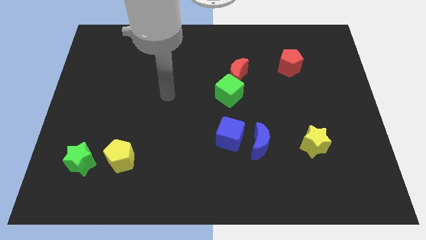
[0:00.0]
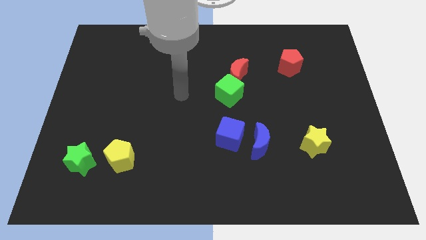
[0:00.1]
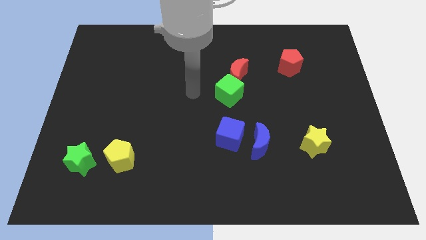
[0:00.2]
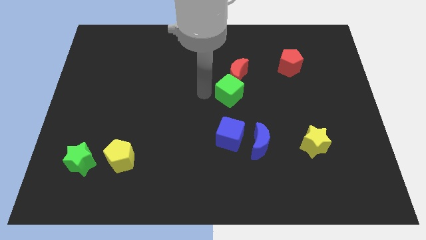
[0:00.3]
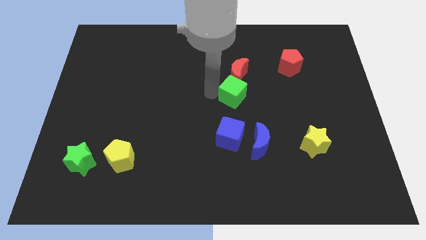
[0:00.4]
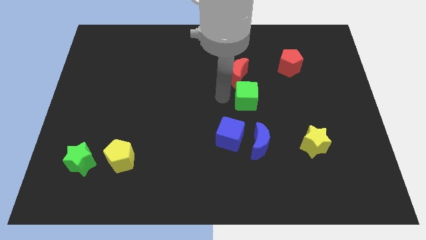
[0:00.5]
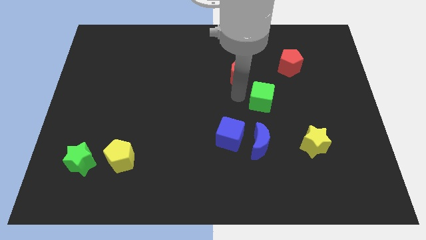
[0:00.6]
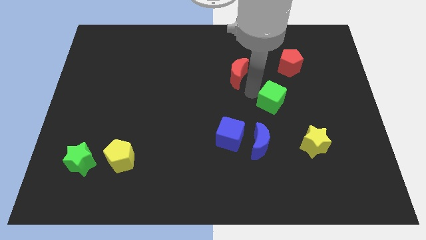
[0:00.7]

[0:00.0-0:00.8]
move the red moon away from the green cube

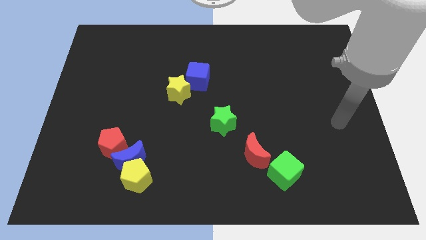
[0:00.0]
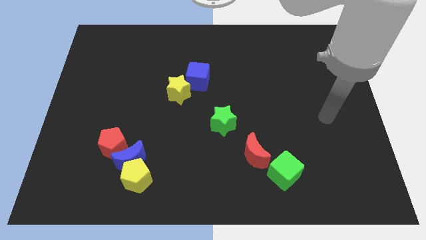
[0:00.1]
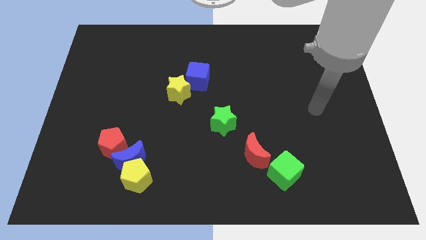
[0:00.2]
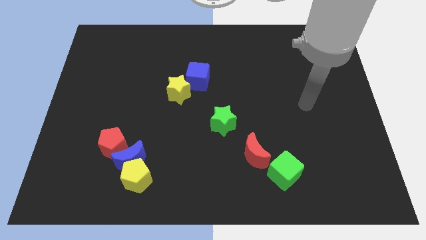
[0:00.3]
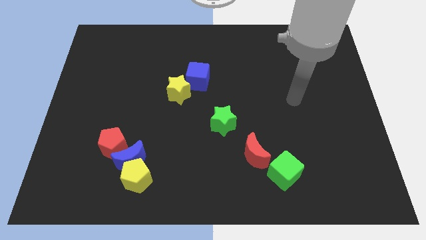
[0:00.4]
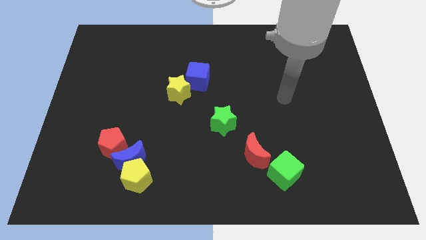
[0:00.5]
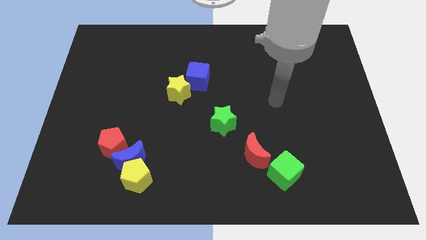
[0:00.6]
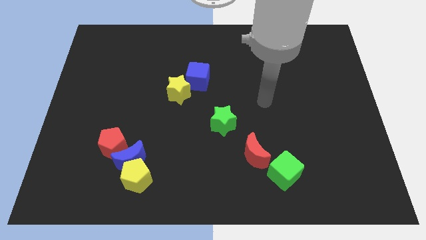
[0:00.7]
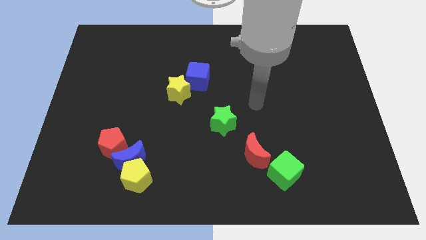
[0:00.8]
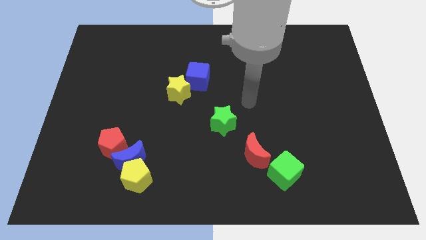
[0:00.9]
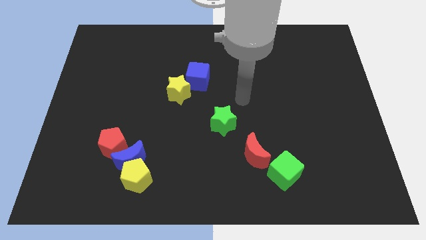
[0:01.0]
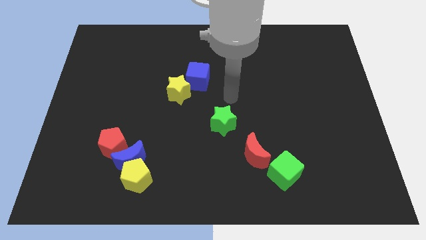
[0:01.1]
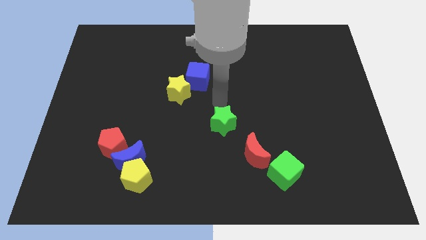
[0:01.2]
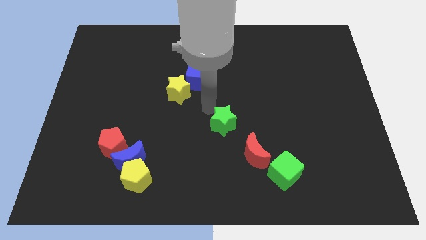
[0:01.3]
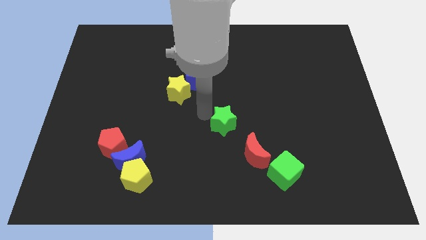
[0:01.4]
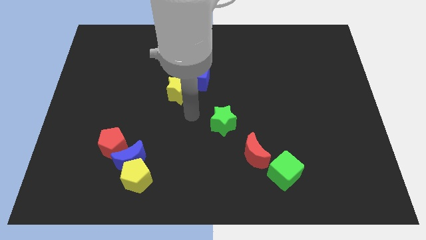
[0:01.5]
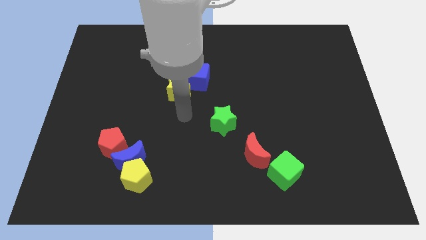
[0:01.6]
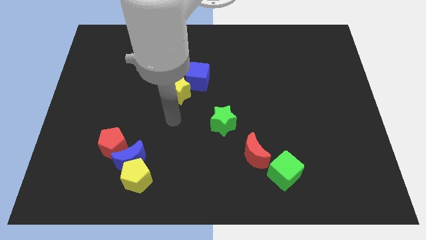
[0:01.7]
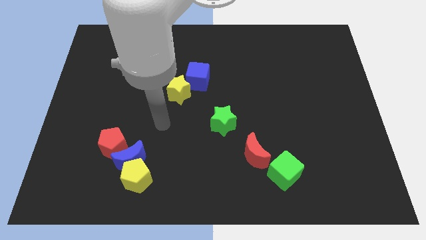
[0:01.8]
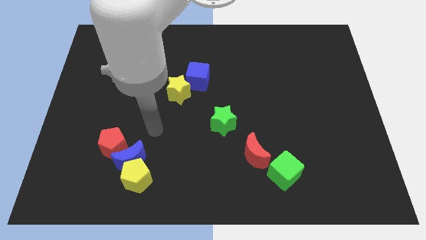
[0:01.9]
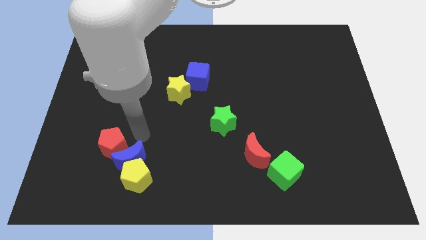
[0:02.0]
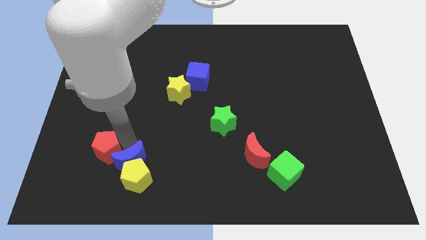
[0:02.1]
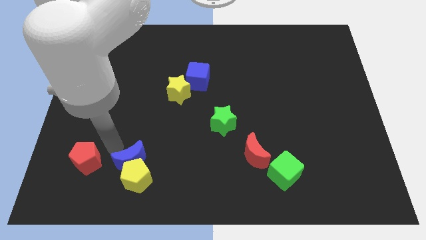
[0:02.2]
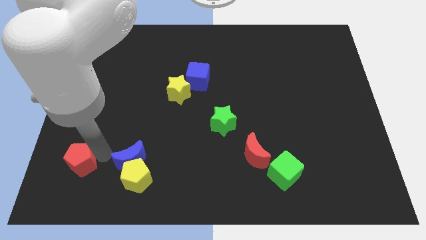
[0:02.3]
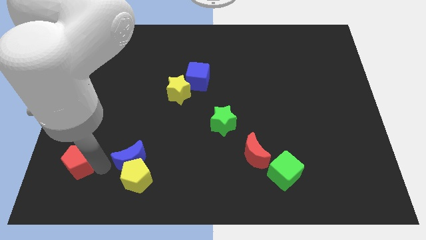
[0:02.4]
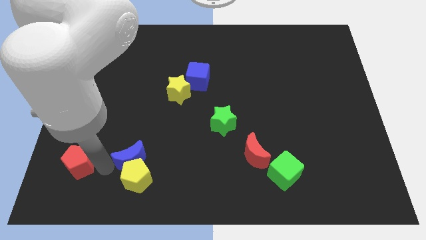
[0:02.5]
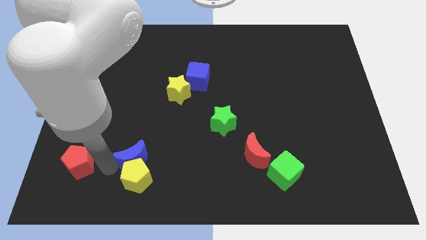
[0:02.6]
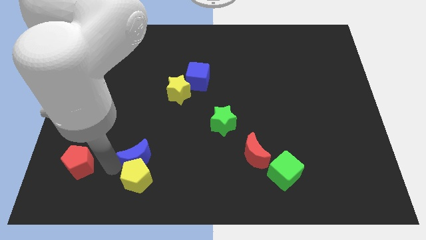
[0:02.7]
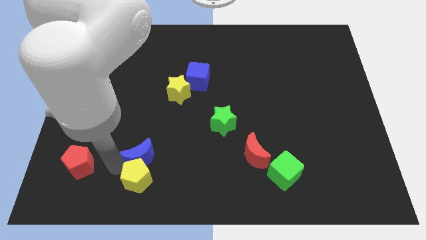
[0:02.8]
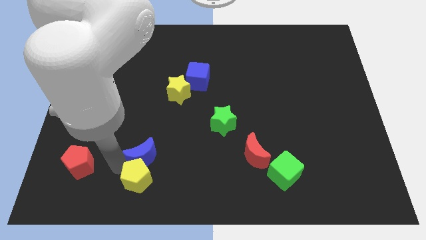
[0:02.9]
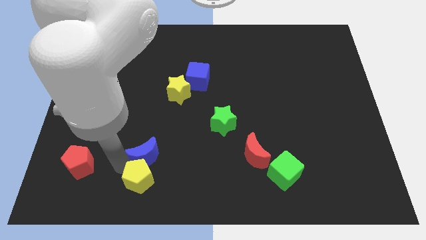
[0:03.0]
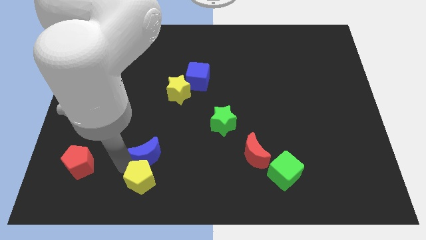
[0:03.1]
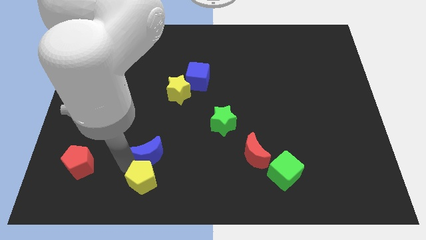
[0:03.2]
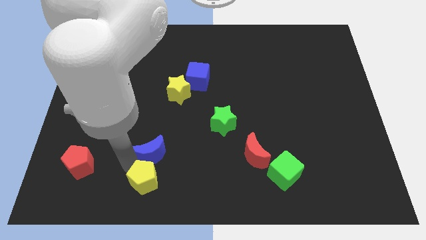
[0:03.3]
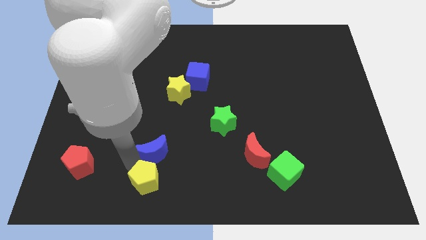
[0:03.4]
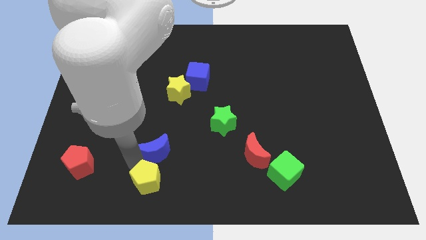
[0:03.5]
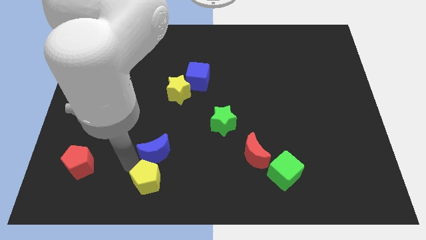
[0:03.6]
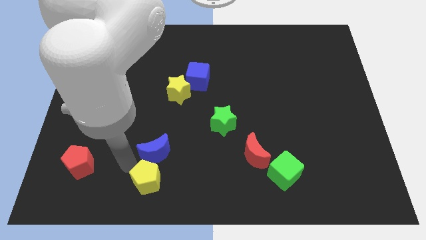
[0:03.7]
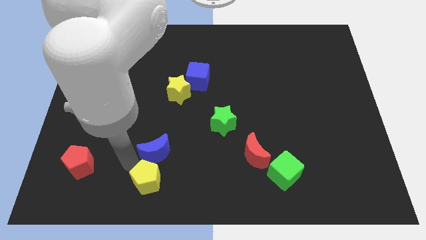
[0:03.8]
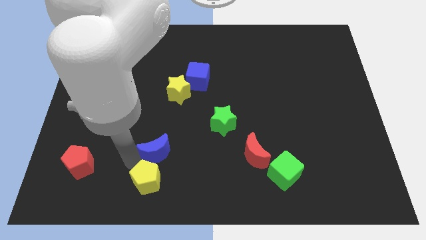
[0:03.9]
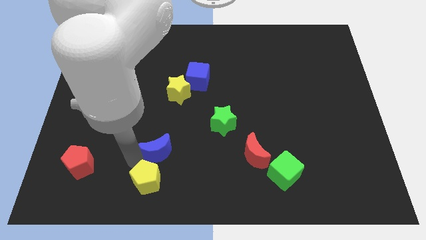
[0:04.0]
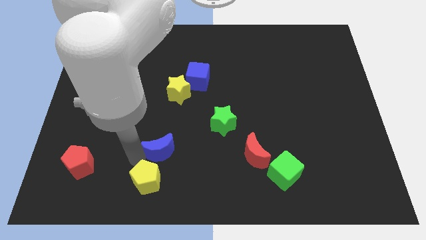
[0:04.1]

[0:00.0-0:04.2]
separate the blue moon from the yellow pentagon and red pentagon

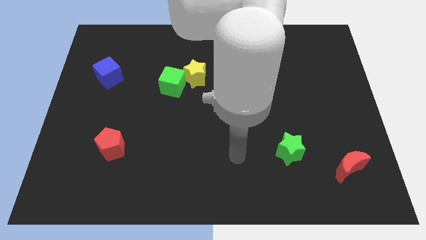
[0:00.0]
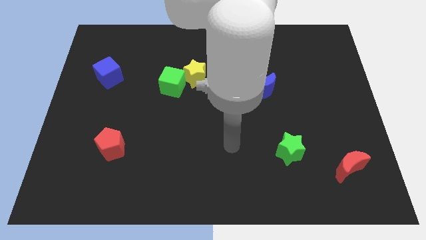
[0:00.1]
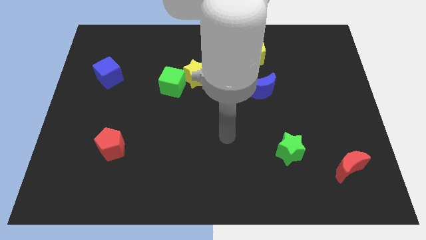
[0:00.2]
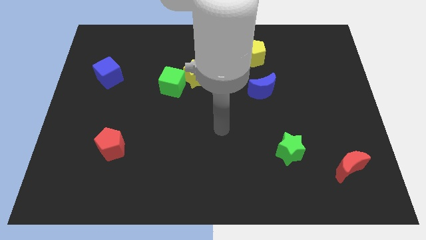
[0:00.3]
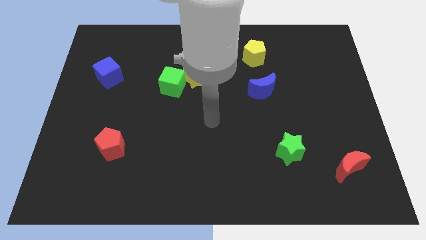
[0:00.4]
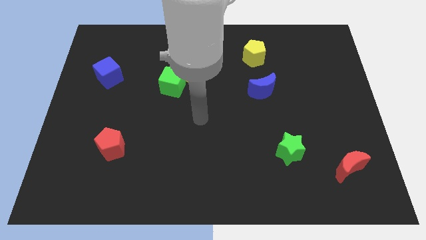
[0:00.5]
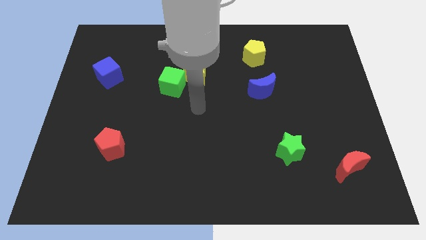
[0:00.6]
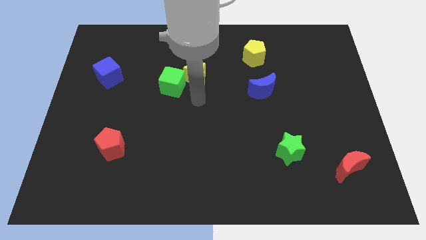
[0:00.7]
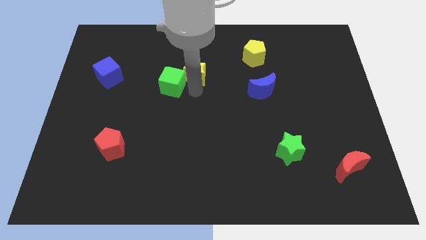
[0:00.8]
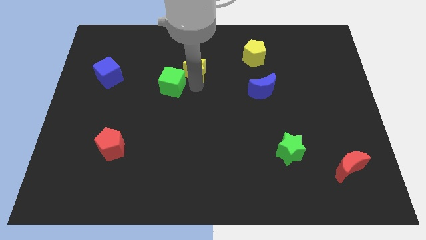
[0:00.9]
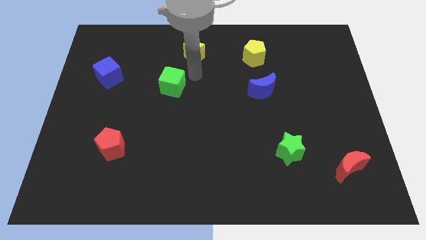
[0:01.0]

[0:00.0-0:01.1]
move the green cube away from the yellow star

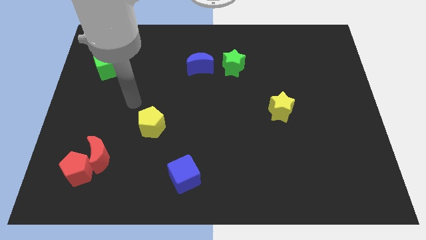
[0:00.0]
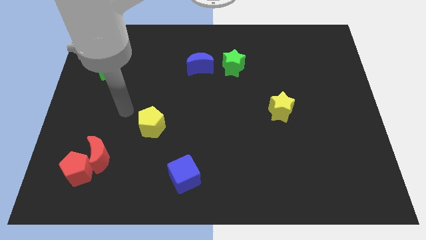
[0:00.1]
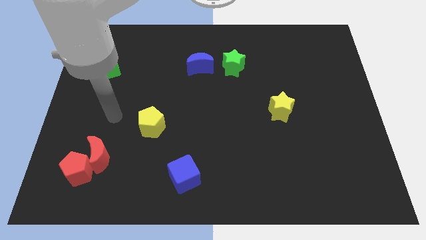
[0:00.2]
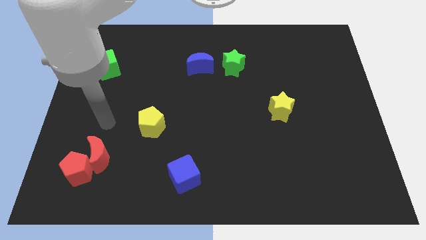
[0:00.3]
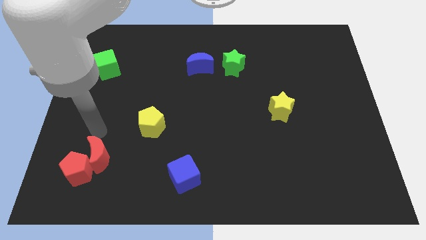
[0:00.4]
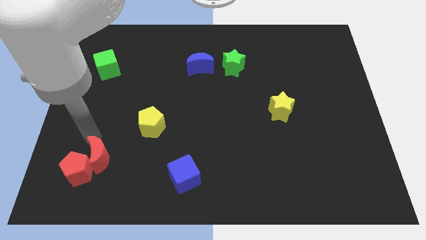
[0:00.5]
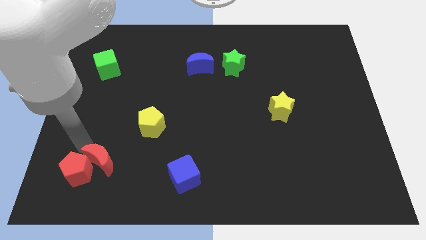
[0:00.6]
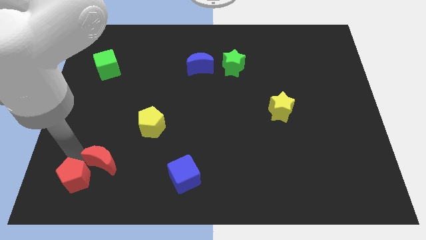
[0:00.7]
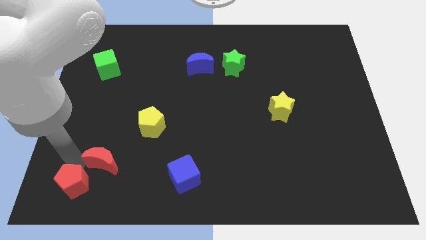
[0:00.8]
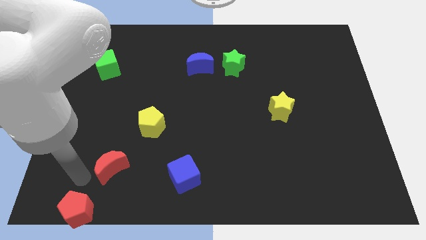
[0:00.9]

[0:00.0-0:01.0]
separate the red moon from the red pentagon

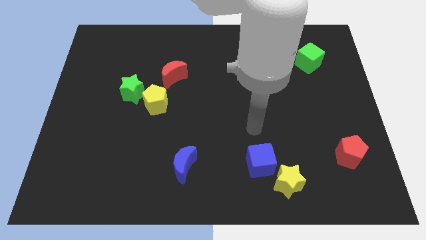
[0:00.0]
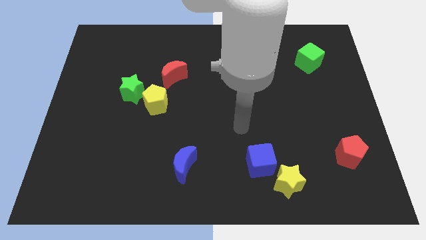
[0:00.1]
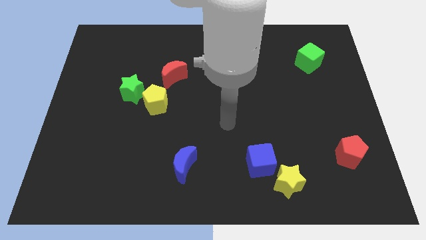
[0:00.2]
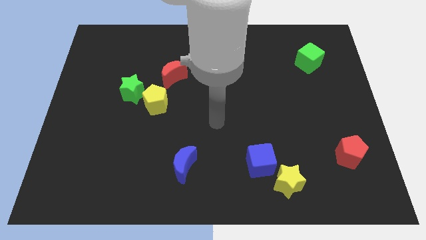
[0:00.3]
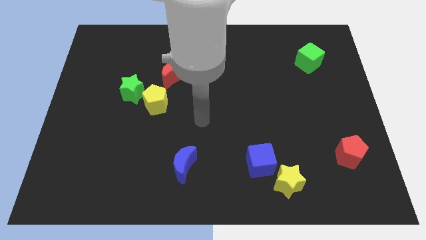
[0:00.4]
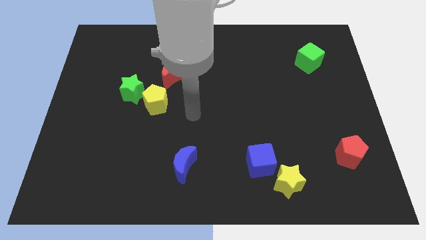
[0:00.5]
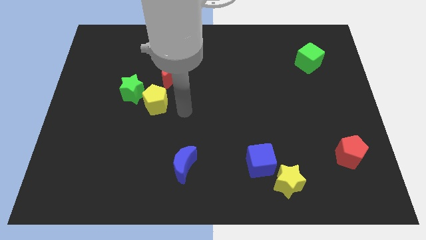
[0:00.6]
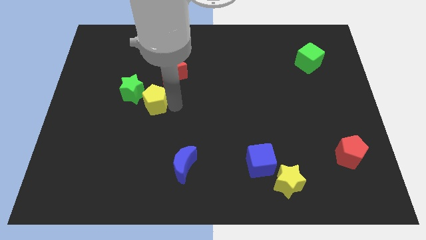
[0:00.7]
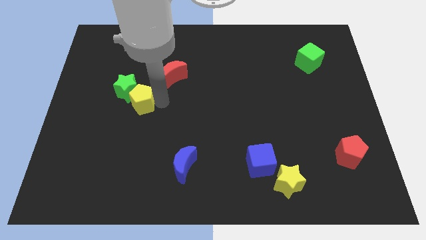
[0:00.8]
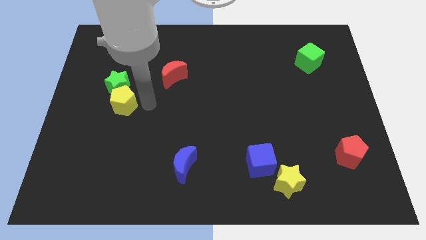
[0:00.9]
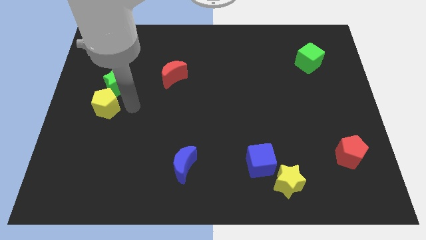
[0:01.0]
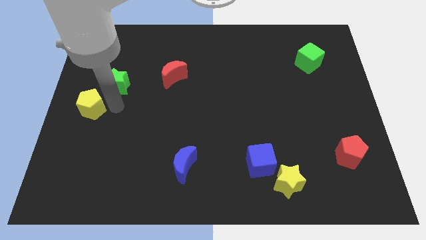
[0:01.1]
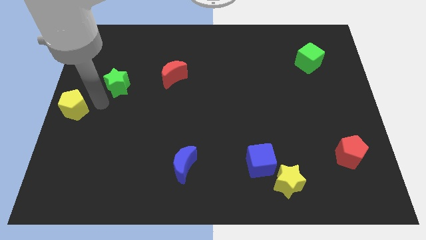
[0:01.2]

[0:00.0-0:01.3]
move the green star away from the yellow pentagon

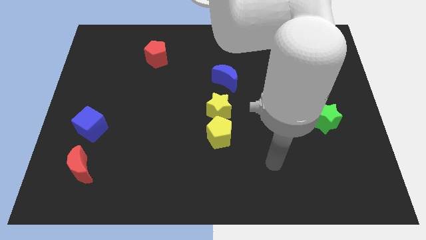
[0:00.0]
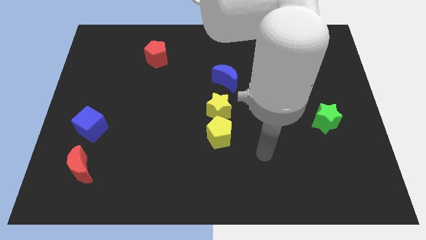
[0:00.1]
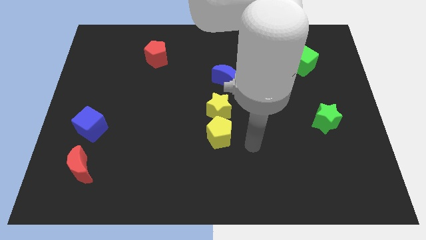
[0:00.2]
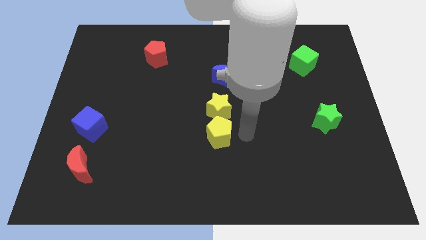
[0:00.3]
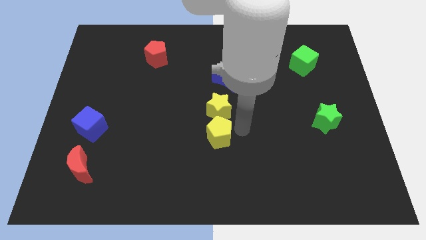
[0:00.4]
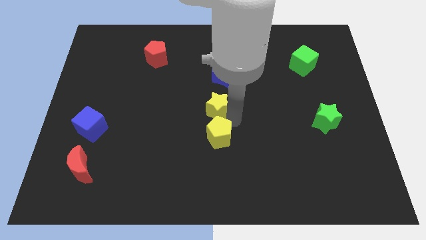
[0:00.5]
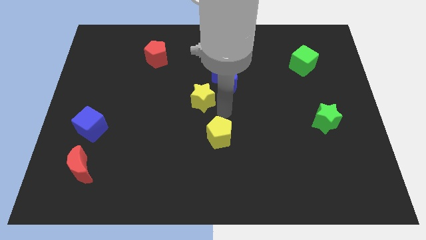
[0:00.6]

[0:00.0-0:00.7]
move the yellow pentagon away from the yellow star

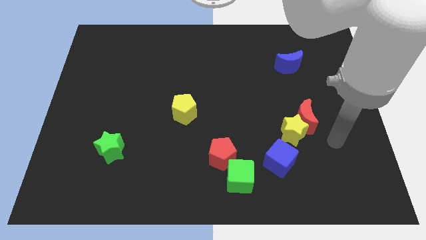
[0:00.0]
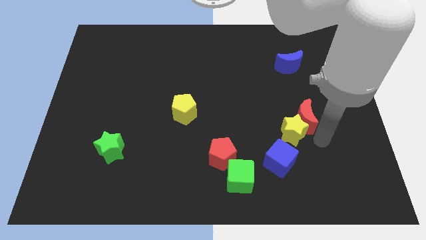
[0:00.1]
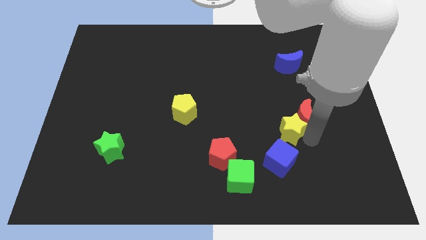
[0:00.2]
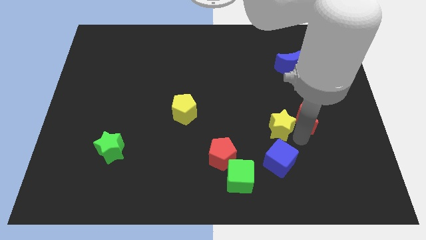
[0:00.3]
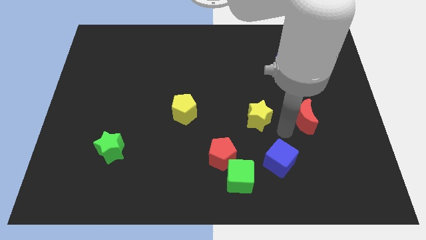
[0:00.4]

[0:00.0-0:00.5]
separate the red moon from the yellow star
